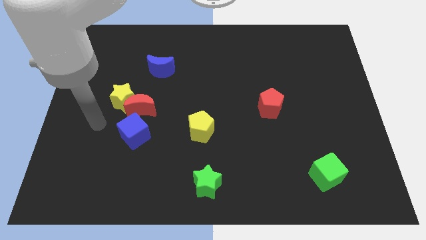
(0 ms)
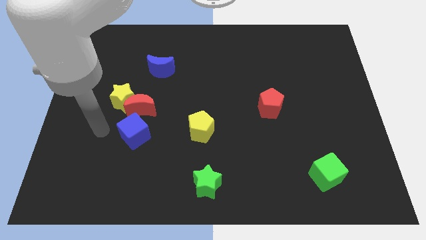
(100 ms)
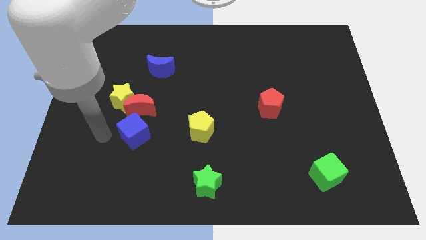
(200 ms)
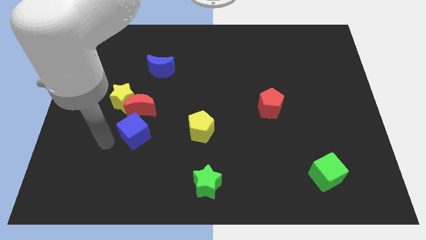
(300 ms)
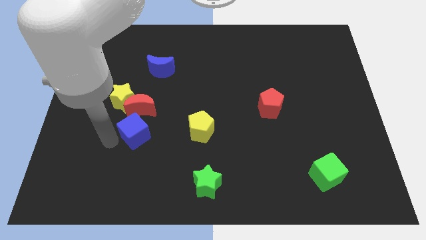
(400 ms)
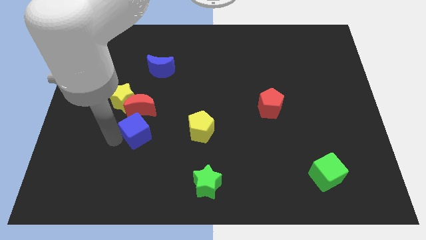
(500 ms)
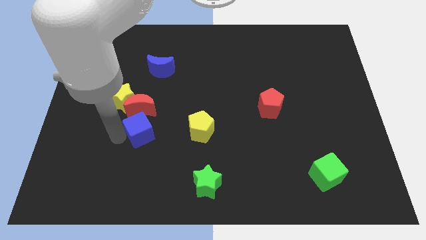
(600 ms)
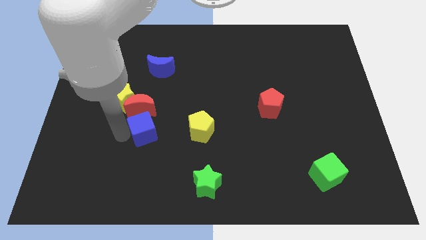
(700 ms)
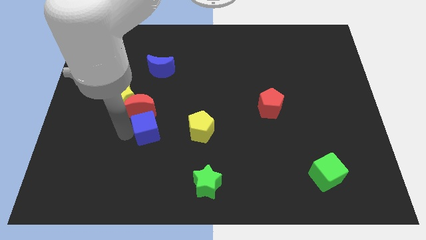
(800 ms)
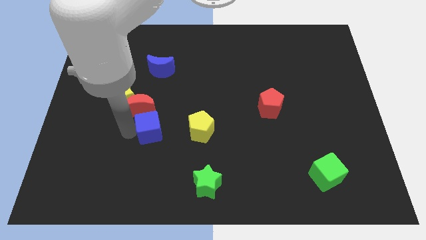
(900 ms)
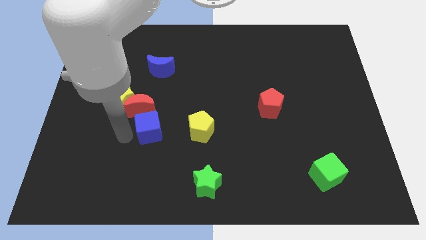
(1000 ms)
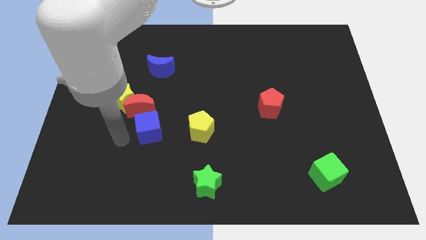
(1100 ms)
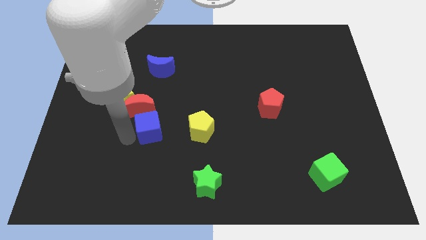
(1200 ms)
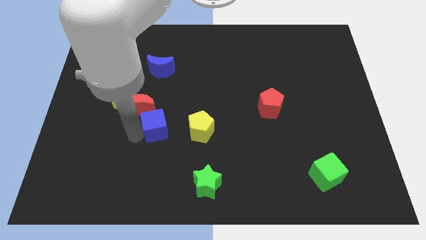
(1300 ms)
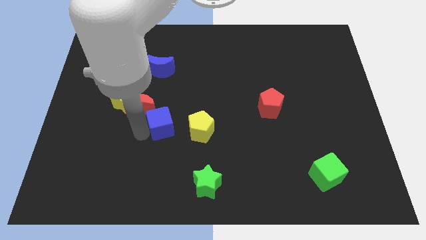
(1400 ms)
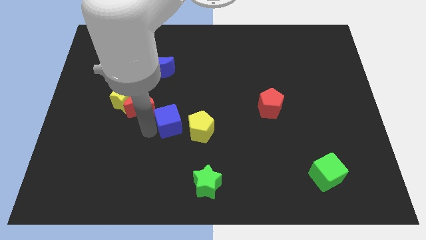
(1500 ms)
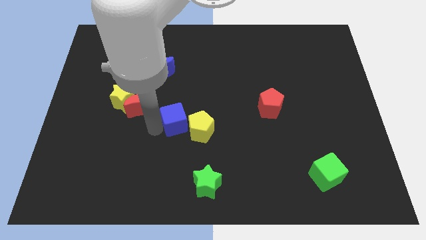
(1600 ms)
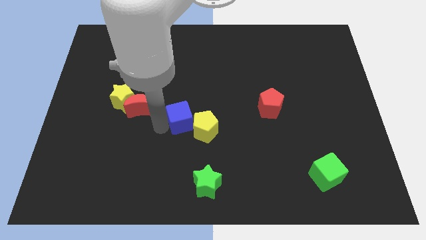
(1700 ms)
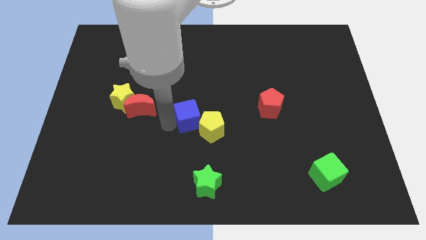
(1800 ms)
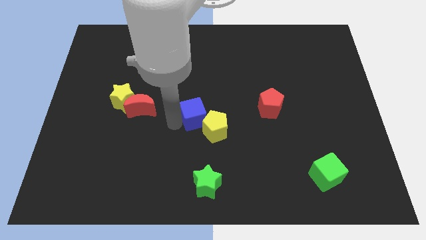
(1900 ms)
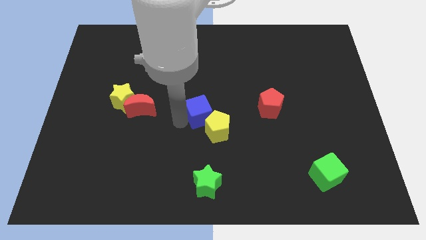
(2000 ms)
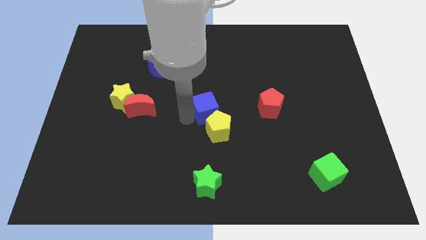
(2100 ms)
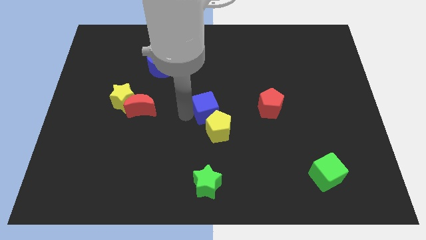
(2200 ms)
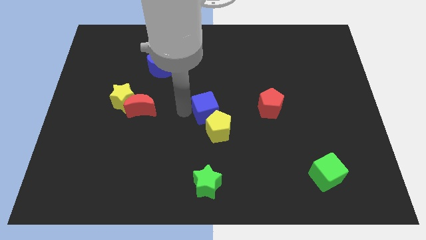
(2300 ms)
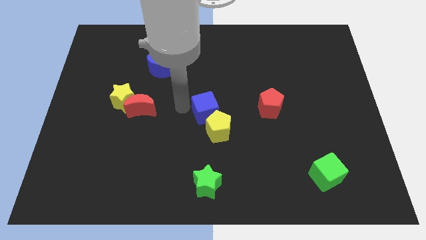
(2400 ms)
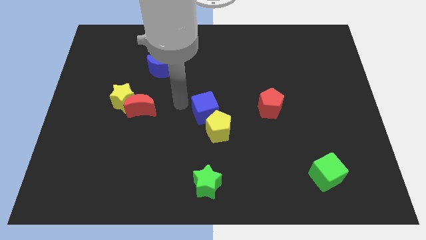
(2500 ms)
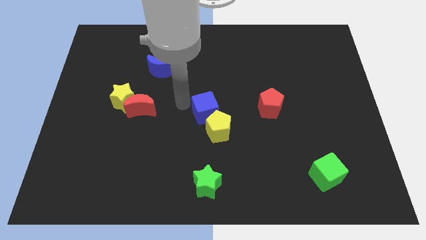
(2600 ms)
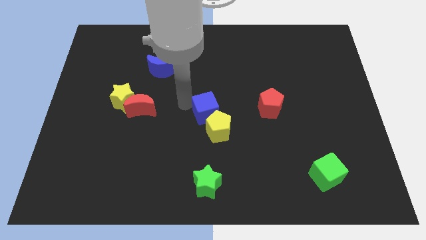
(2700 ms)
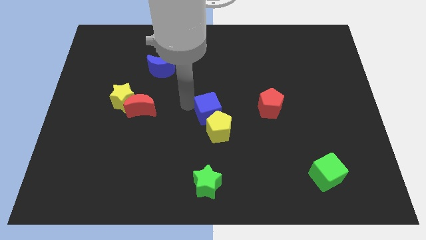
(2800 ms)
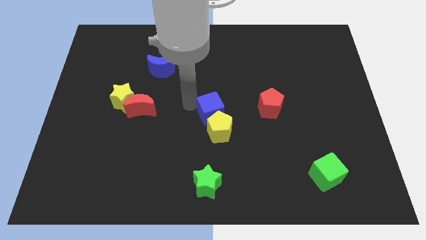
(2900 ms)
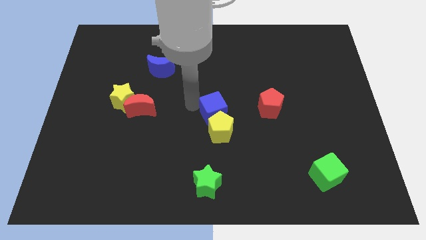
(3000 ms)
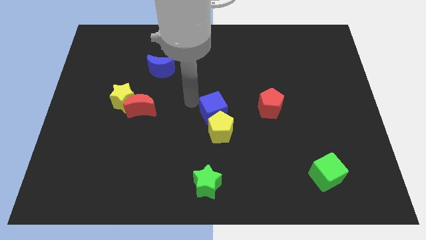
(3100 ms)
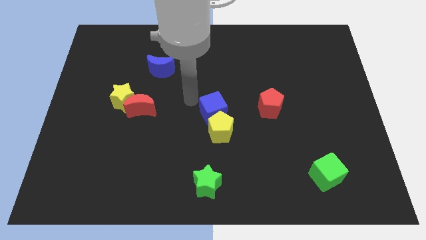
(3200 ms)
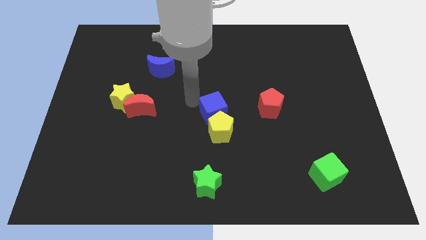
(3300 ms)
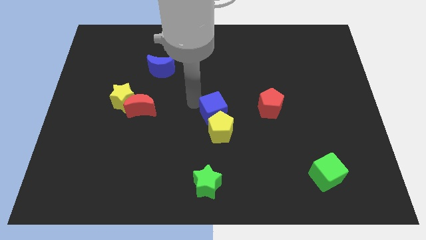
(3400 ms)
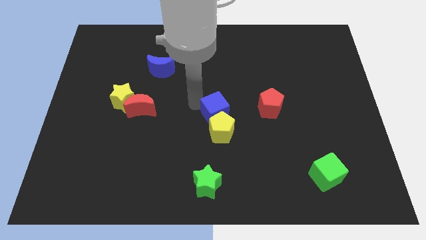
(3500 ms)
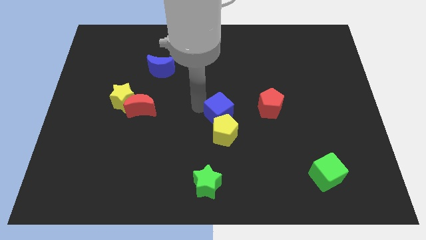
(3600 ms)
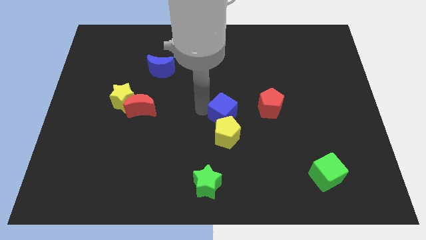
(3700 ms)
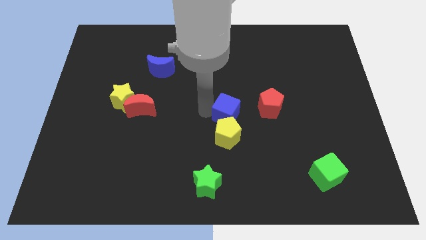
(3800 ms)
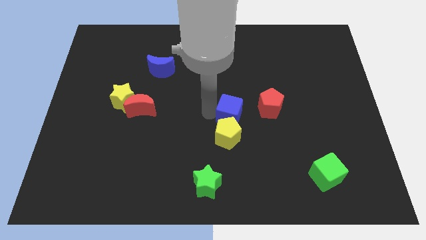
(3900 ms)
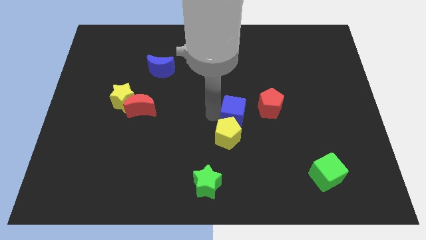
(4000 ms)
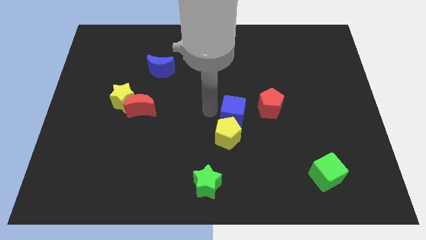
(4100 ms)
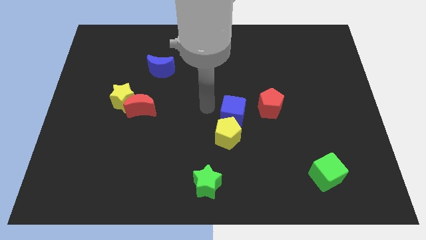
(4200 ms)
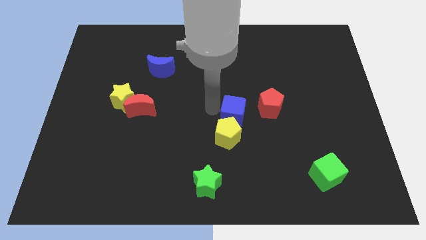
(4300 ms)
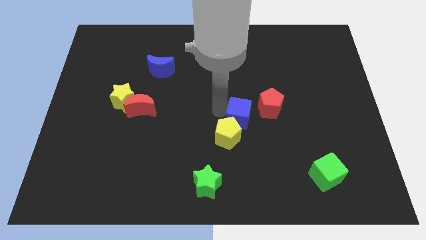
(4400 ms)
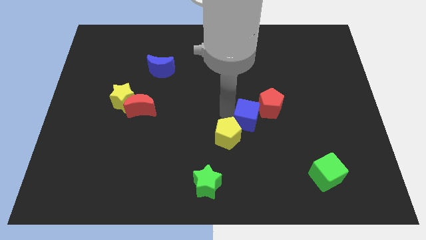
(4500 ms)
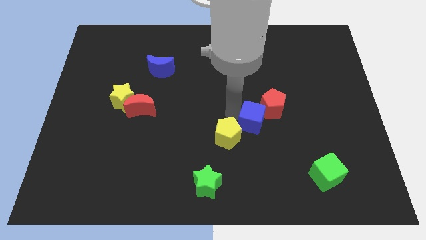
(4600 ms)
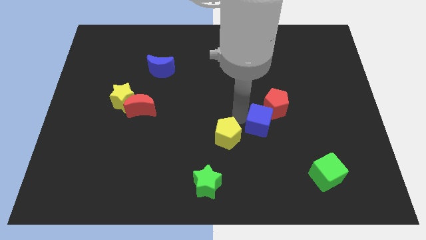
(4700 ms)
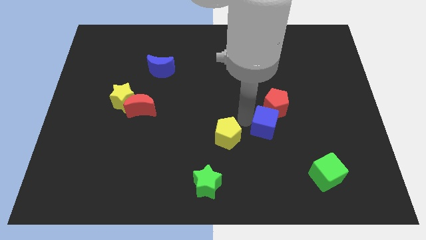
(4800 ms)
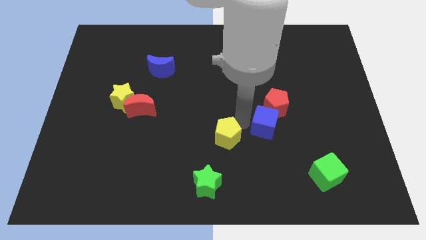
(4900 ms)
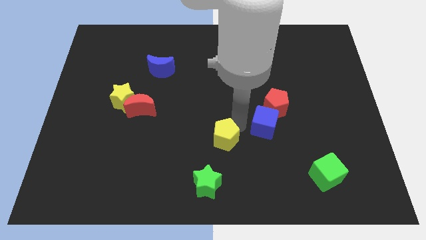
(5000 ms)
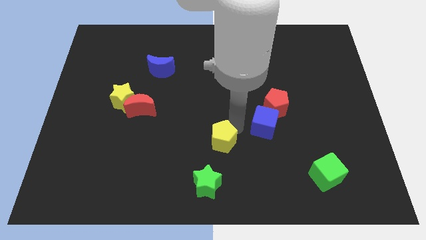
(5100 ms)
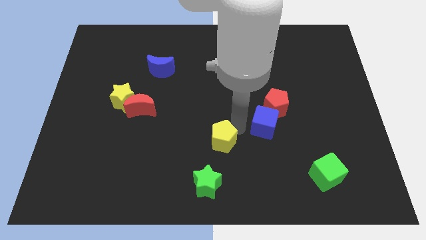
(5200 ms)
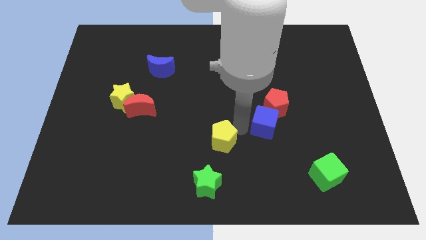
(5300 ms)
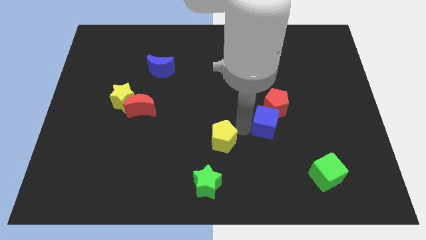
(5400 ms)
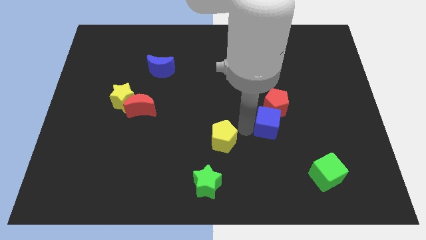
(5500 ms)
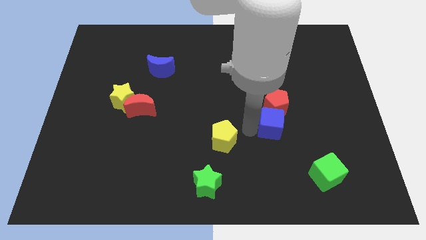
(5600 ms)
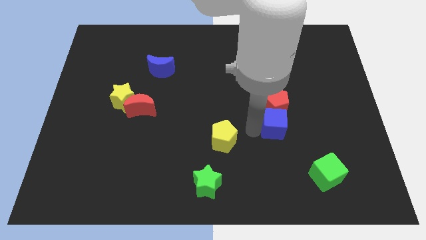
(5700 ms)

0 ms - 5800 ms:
move the blue cube to the bottom right side of the red pentagon

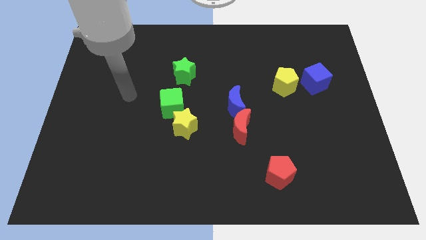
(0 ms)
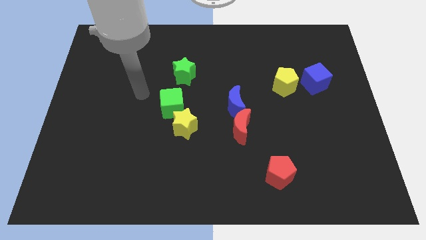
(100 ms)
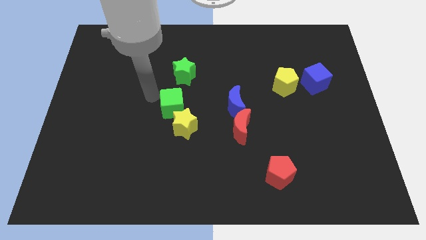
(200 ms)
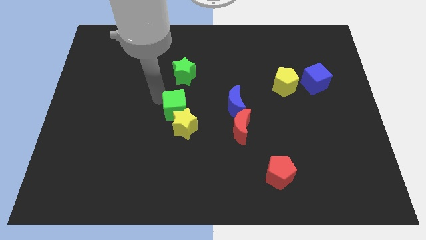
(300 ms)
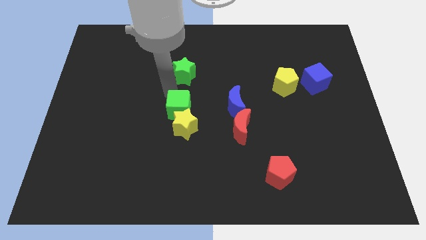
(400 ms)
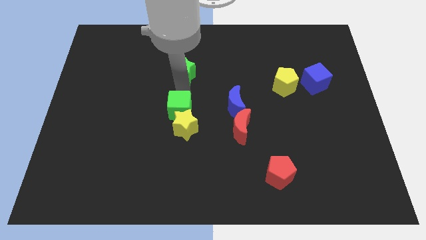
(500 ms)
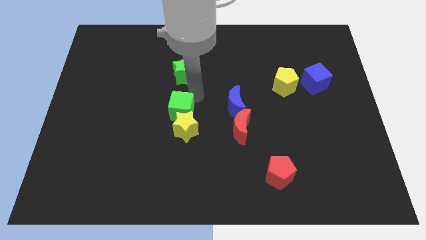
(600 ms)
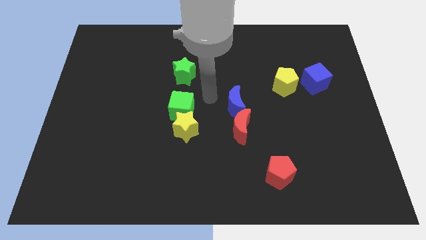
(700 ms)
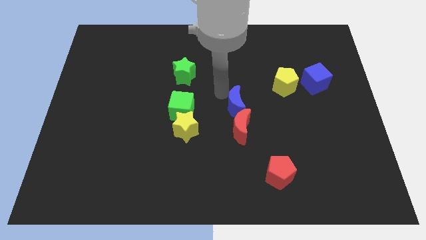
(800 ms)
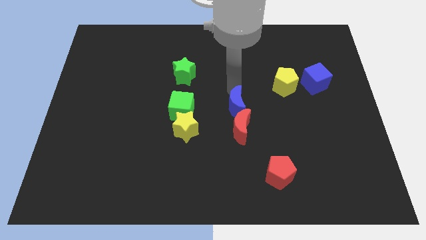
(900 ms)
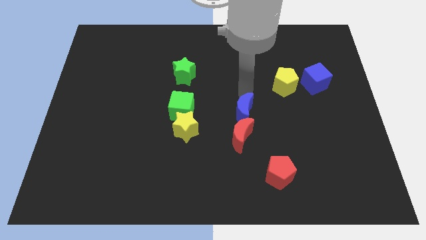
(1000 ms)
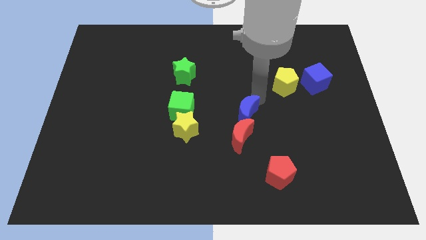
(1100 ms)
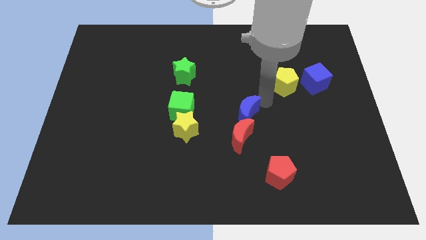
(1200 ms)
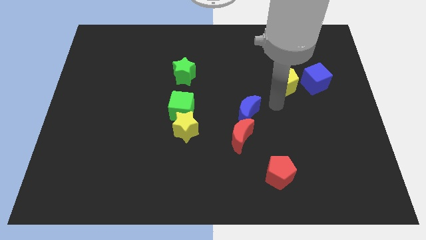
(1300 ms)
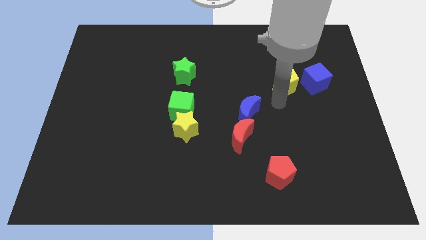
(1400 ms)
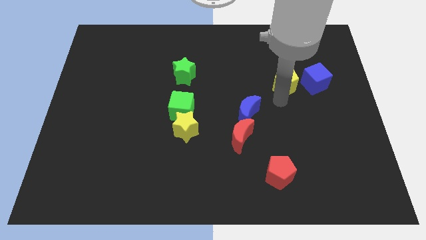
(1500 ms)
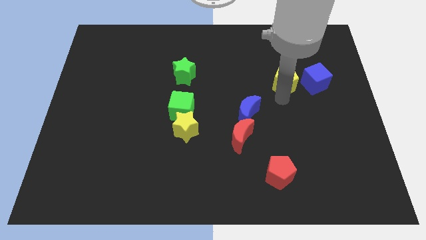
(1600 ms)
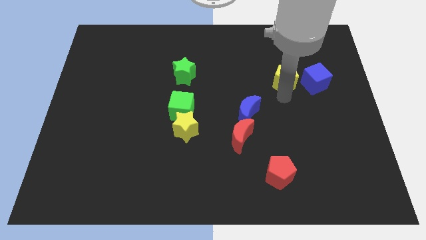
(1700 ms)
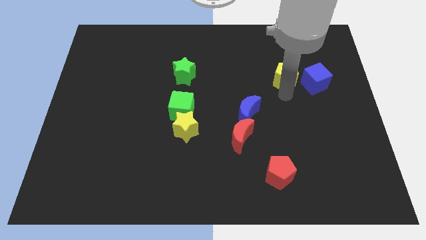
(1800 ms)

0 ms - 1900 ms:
put the yellow pentagon diagonally up and to the left of the blue cube
